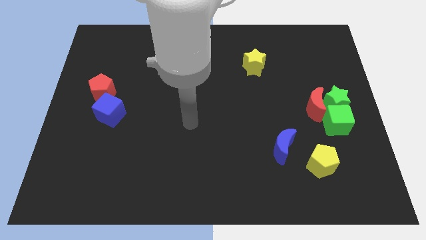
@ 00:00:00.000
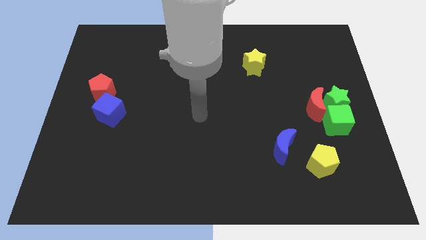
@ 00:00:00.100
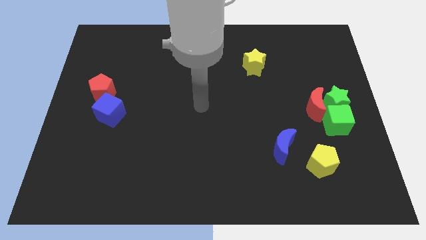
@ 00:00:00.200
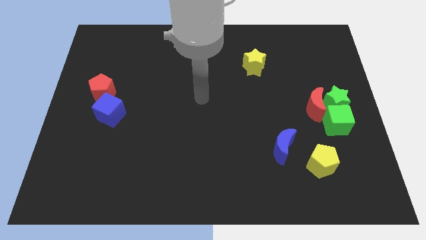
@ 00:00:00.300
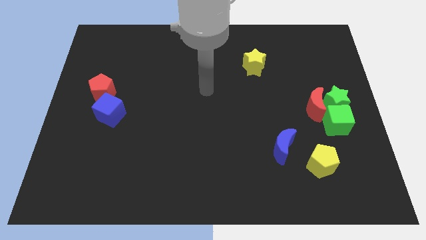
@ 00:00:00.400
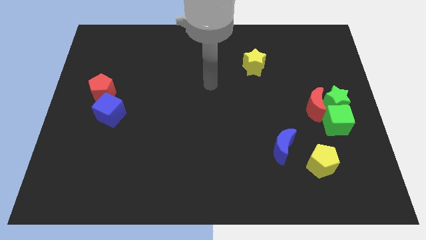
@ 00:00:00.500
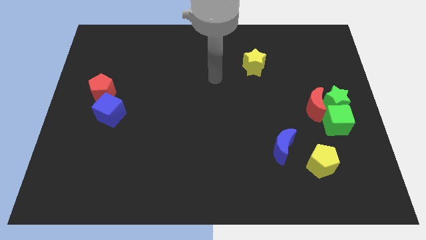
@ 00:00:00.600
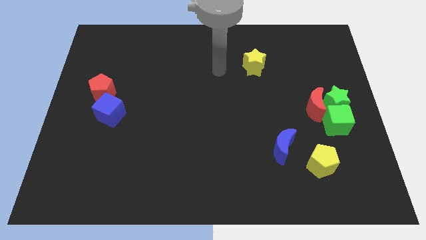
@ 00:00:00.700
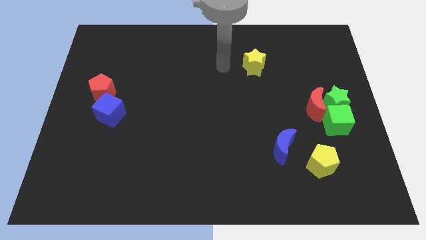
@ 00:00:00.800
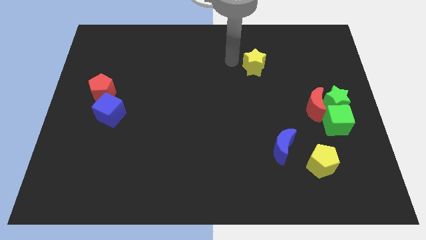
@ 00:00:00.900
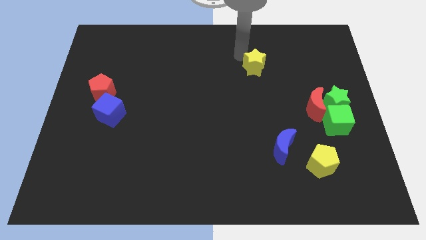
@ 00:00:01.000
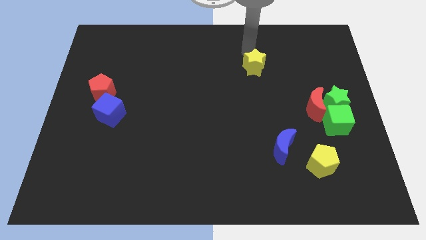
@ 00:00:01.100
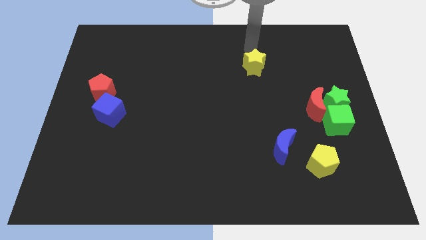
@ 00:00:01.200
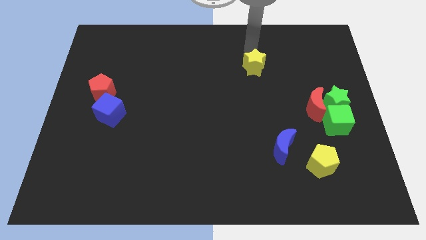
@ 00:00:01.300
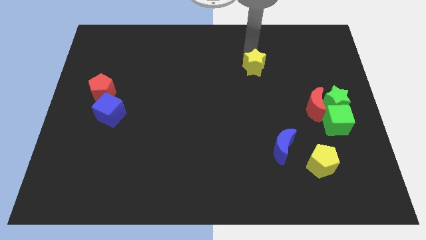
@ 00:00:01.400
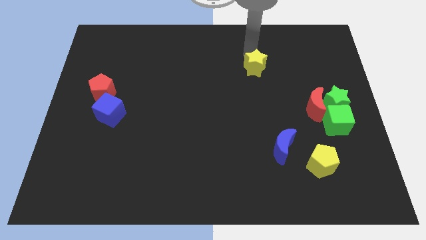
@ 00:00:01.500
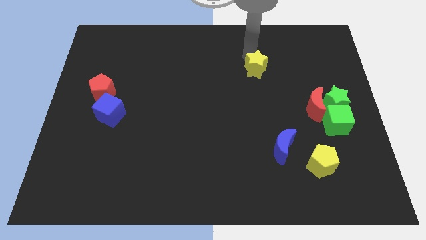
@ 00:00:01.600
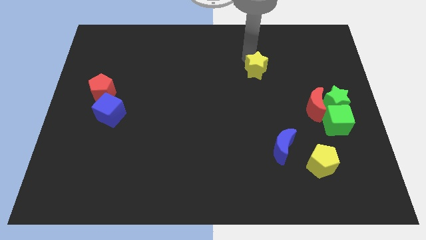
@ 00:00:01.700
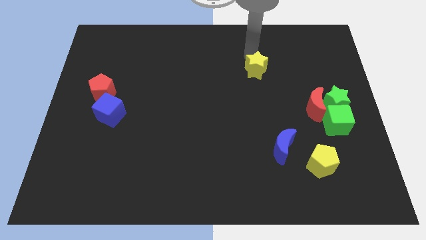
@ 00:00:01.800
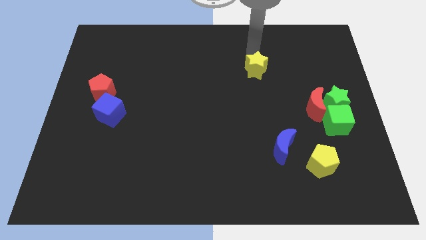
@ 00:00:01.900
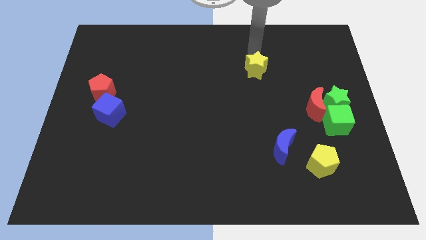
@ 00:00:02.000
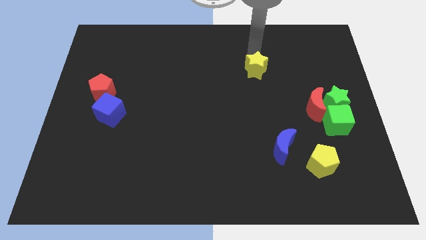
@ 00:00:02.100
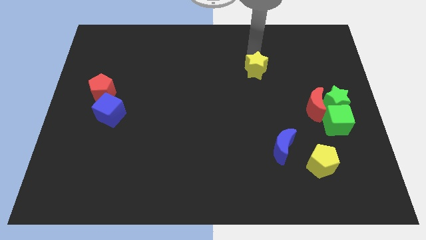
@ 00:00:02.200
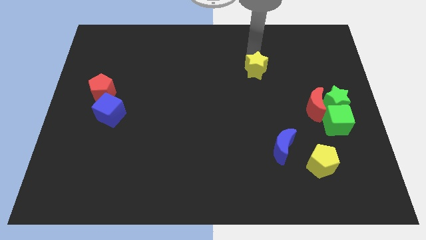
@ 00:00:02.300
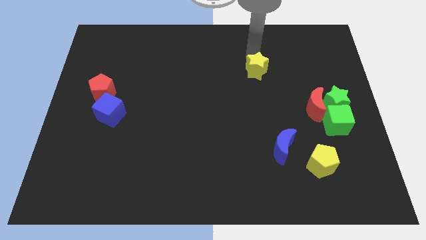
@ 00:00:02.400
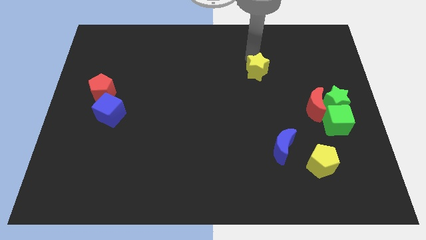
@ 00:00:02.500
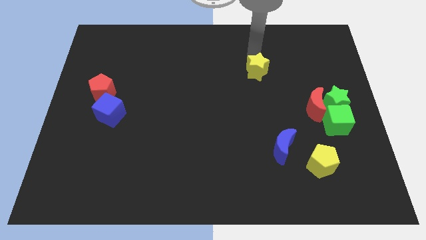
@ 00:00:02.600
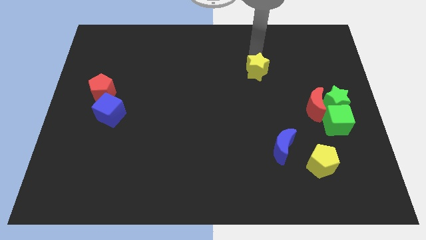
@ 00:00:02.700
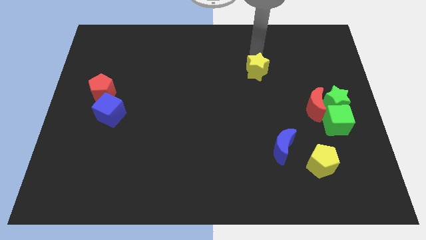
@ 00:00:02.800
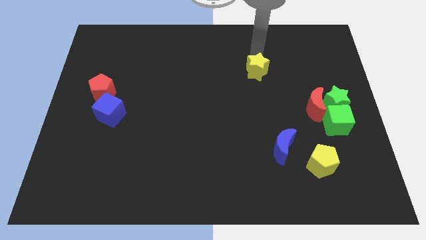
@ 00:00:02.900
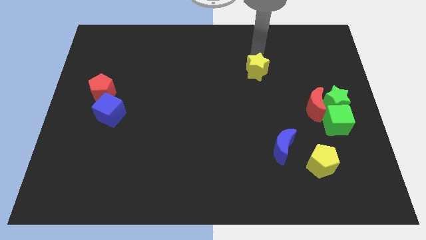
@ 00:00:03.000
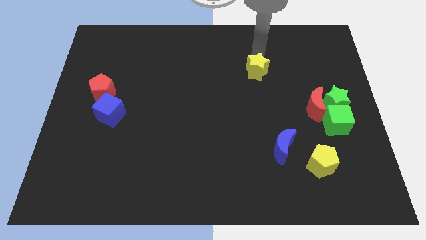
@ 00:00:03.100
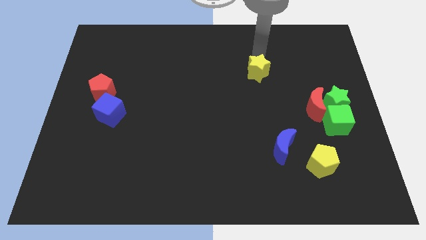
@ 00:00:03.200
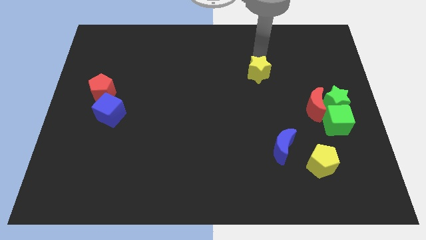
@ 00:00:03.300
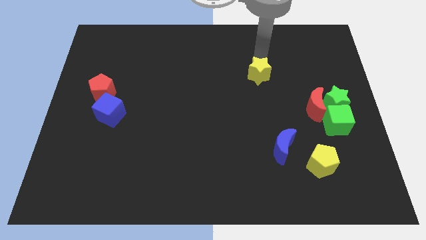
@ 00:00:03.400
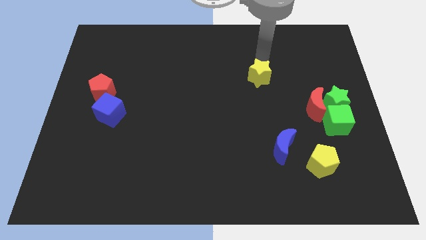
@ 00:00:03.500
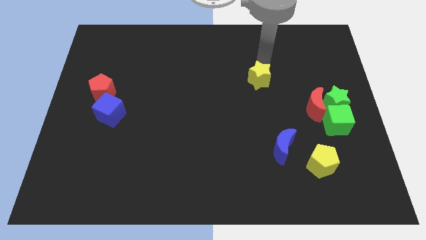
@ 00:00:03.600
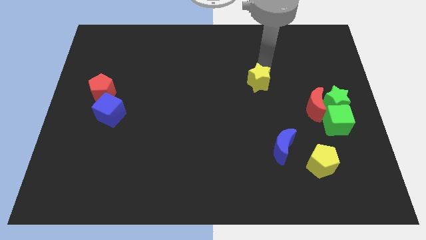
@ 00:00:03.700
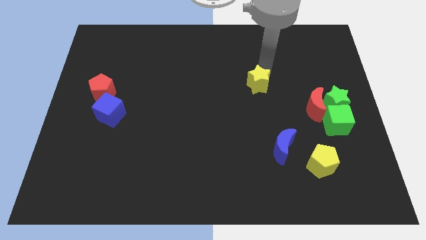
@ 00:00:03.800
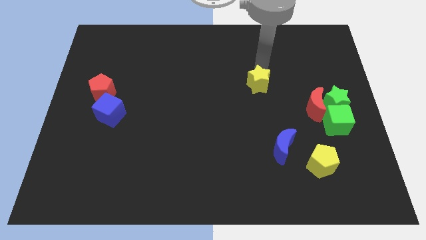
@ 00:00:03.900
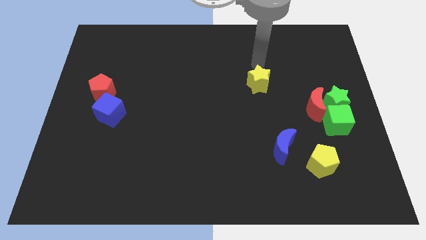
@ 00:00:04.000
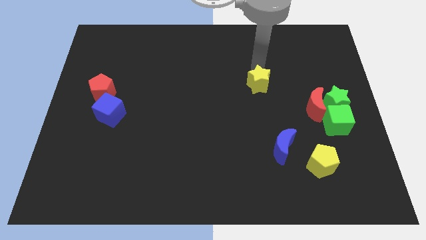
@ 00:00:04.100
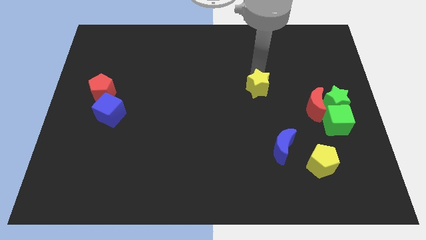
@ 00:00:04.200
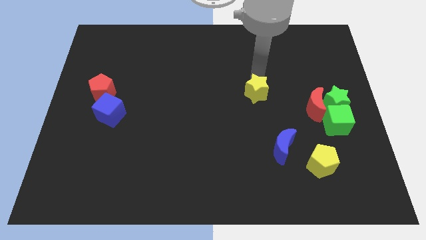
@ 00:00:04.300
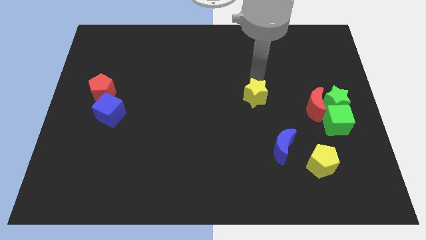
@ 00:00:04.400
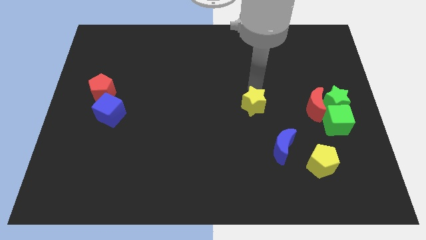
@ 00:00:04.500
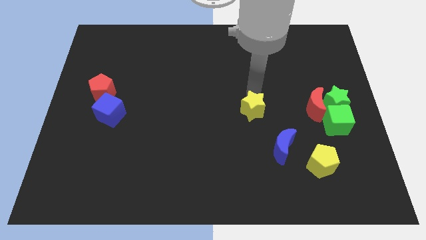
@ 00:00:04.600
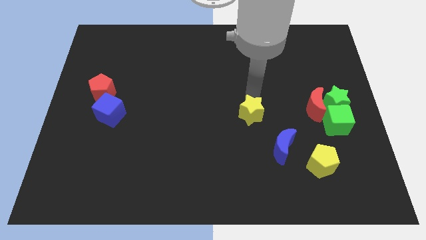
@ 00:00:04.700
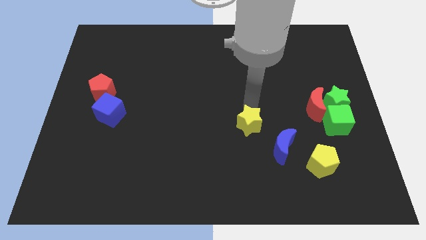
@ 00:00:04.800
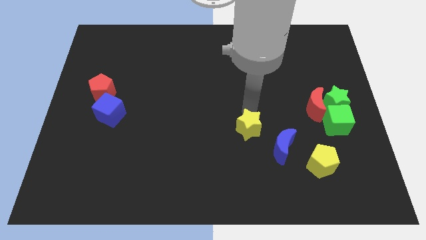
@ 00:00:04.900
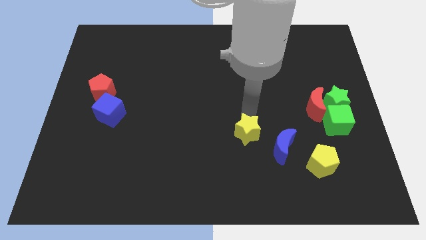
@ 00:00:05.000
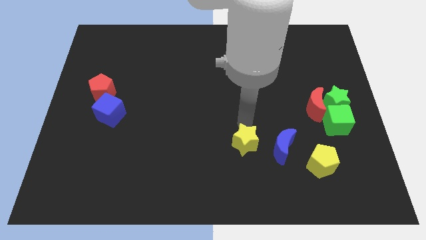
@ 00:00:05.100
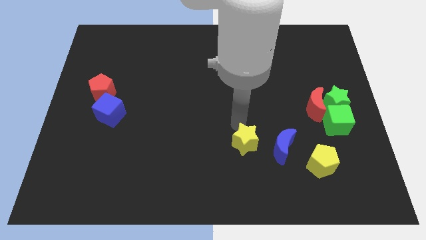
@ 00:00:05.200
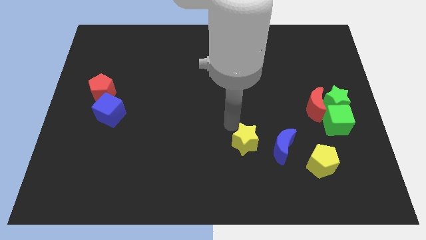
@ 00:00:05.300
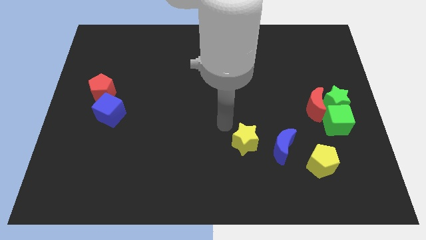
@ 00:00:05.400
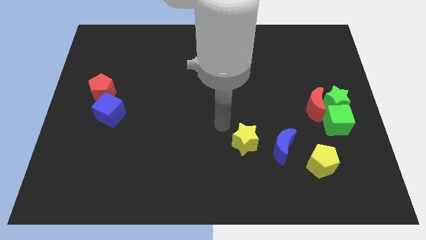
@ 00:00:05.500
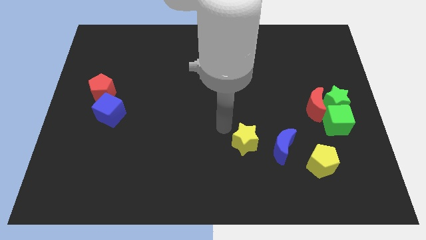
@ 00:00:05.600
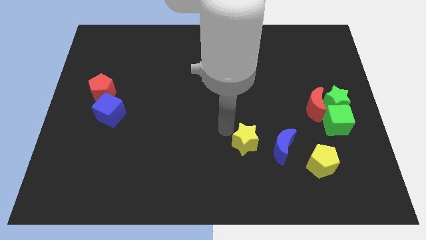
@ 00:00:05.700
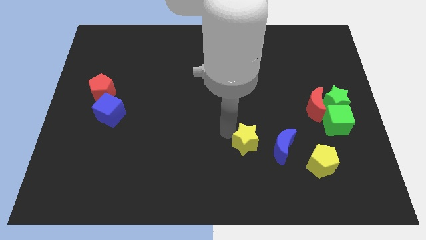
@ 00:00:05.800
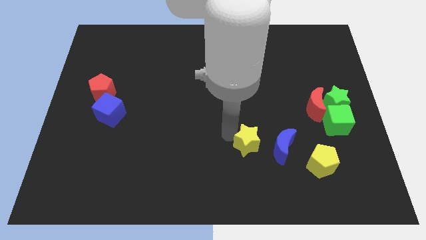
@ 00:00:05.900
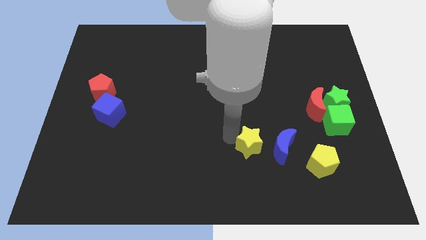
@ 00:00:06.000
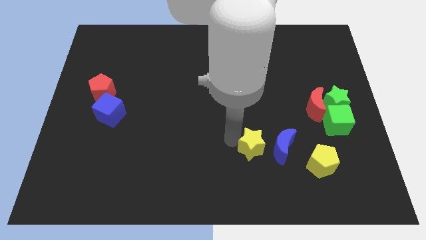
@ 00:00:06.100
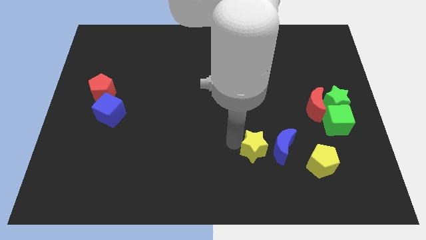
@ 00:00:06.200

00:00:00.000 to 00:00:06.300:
push the yellow star left of the yellow pentagon
